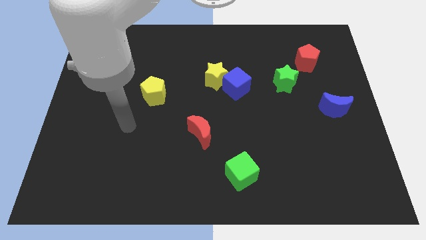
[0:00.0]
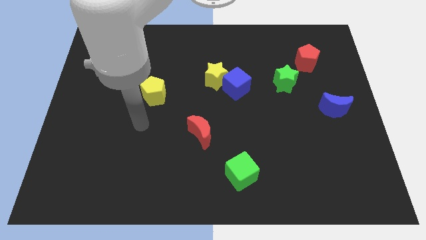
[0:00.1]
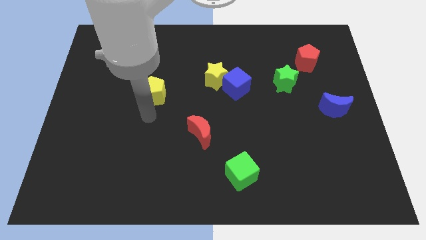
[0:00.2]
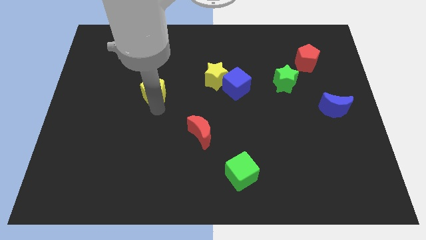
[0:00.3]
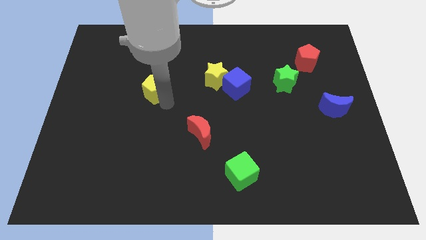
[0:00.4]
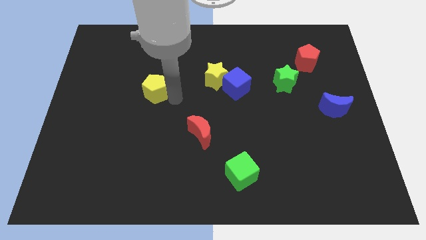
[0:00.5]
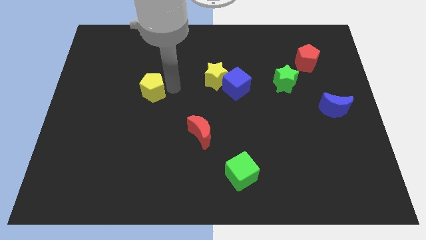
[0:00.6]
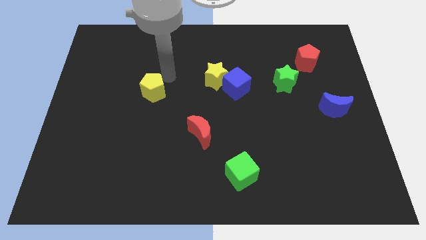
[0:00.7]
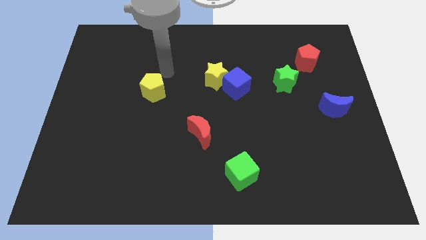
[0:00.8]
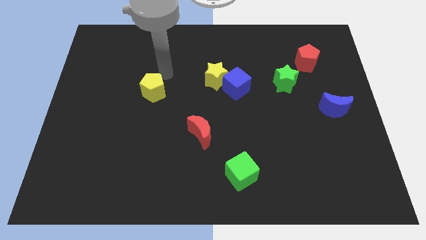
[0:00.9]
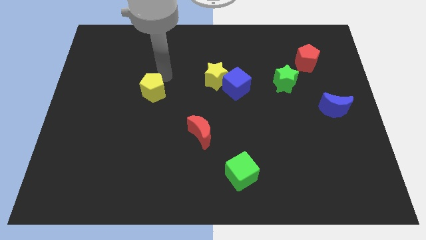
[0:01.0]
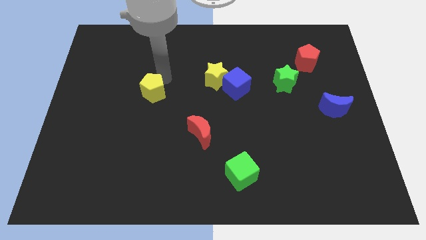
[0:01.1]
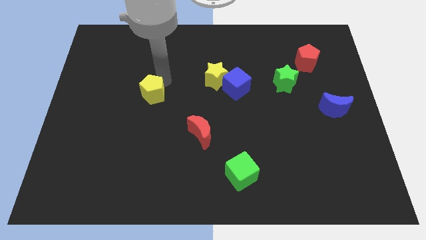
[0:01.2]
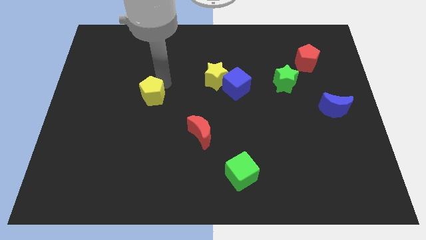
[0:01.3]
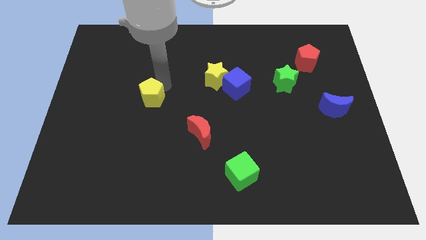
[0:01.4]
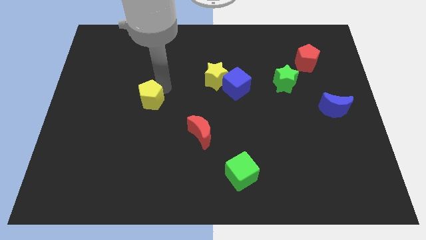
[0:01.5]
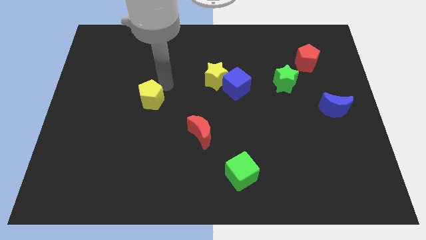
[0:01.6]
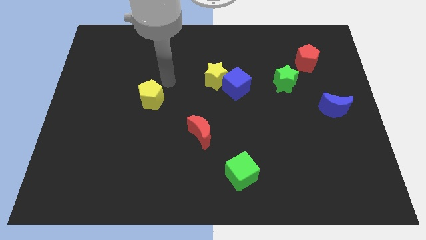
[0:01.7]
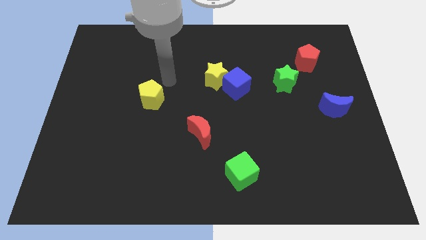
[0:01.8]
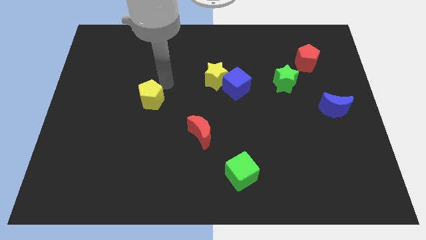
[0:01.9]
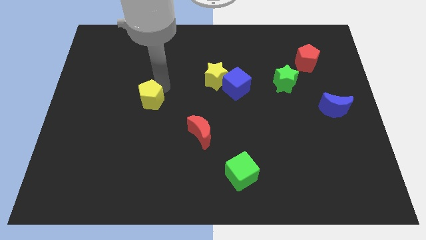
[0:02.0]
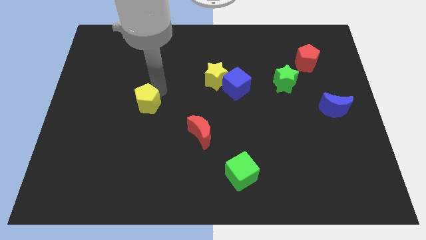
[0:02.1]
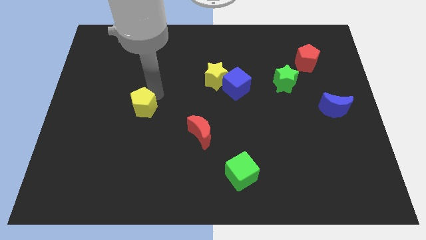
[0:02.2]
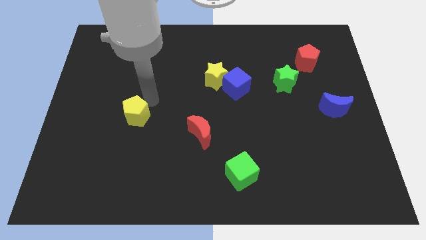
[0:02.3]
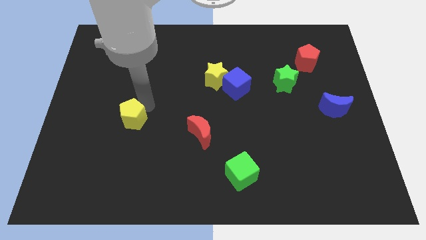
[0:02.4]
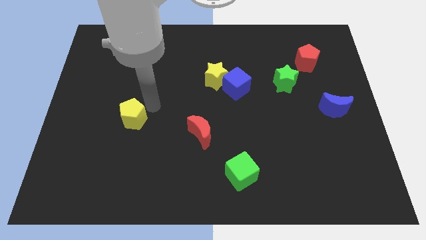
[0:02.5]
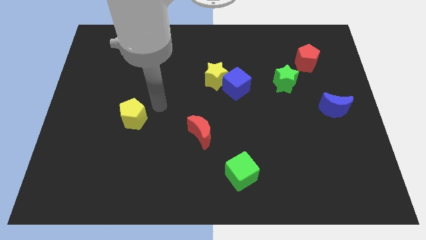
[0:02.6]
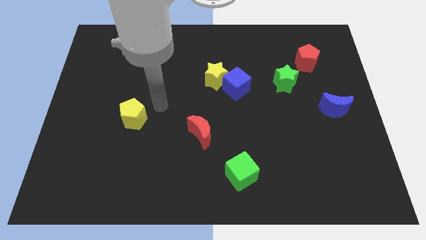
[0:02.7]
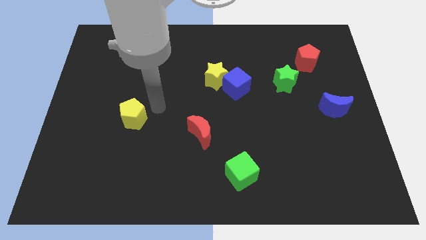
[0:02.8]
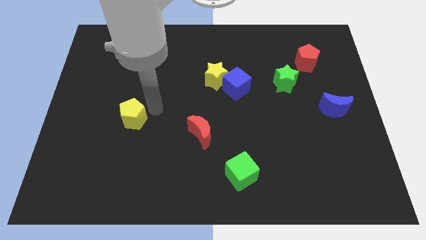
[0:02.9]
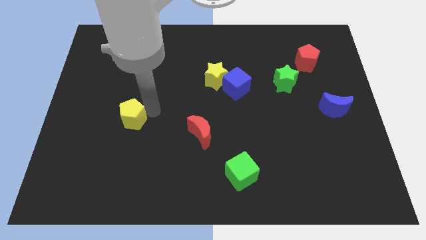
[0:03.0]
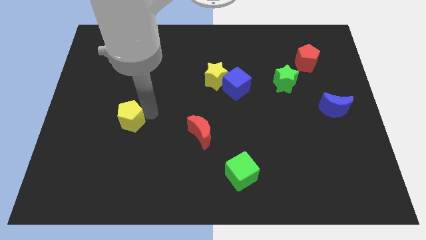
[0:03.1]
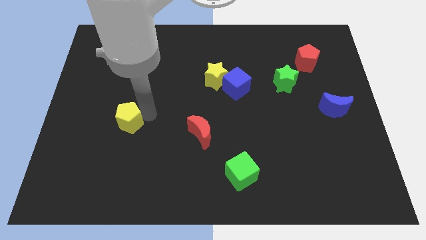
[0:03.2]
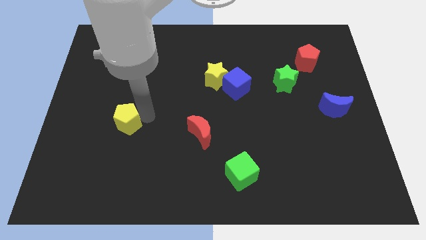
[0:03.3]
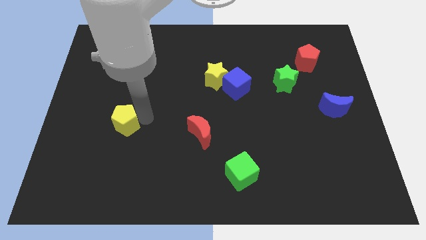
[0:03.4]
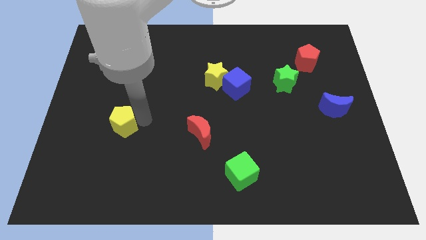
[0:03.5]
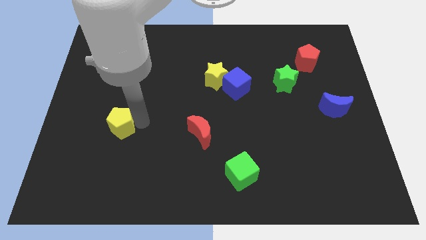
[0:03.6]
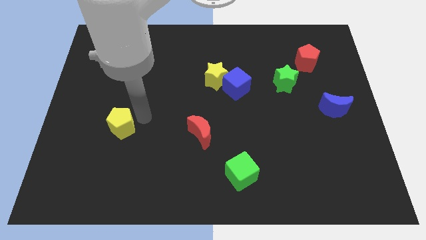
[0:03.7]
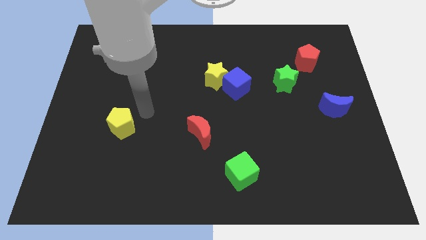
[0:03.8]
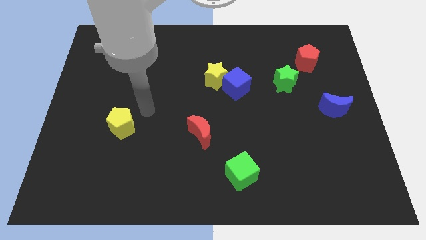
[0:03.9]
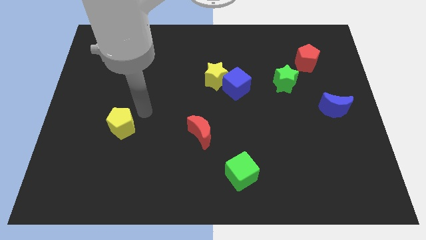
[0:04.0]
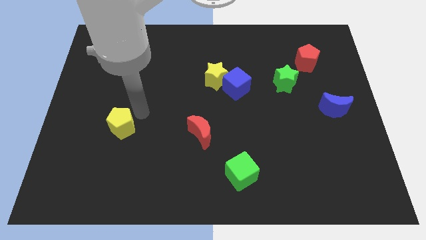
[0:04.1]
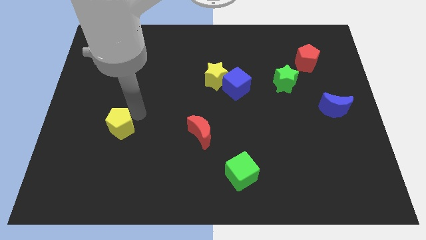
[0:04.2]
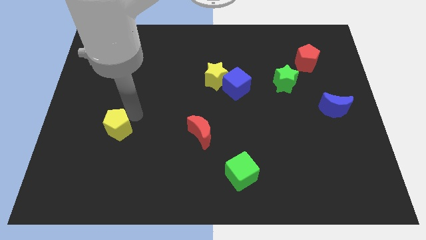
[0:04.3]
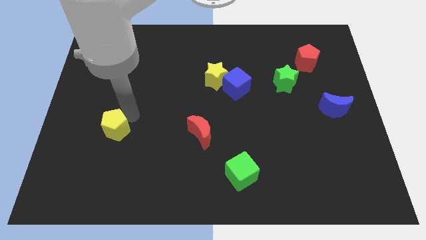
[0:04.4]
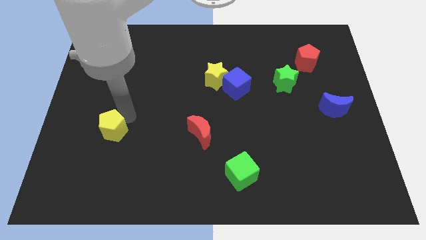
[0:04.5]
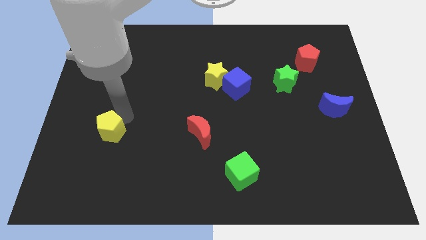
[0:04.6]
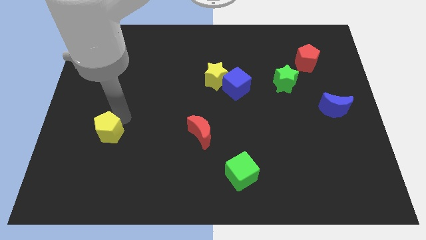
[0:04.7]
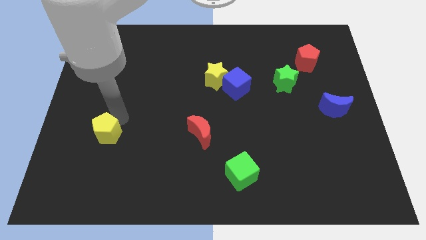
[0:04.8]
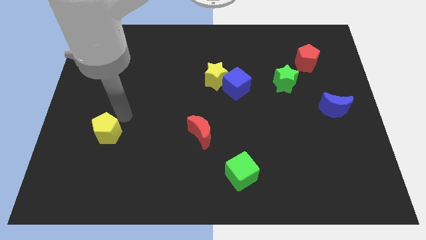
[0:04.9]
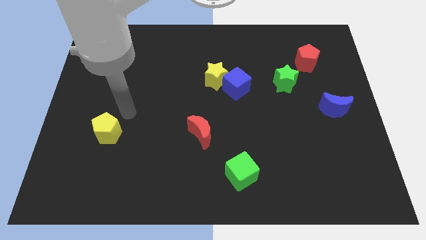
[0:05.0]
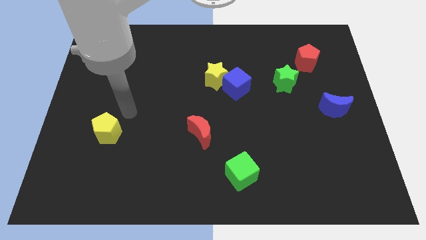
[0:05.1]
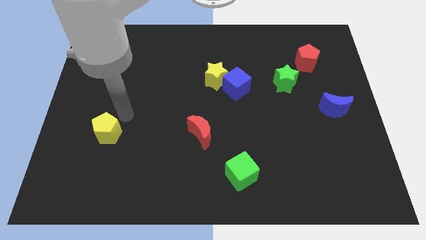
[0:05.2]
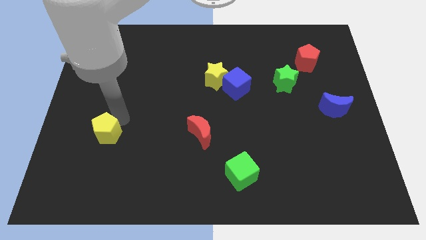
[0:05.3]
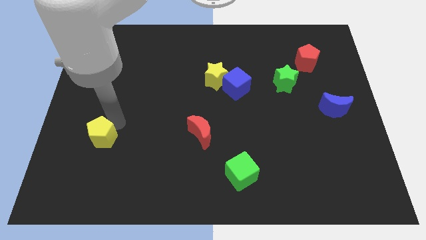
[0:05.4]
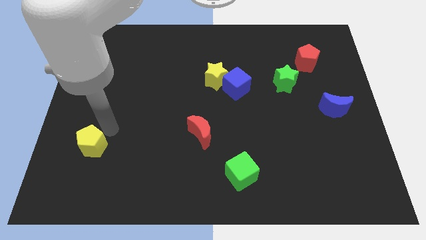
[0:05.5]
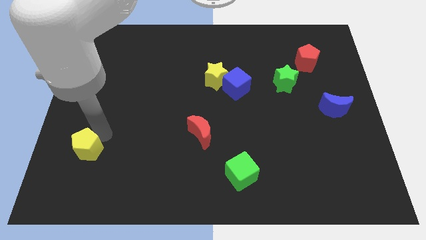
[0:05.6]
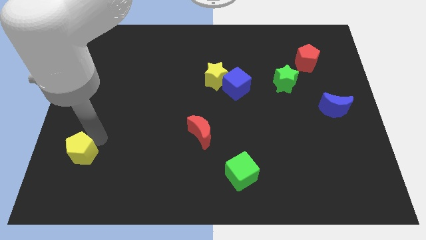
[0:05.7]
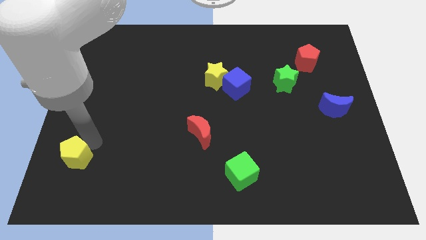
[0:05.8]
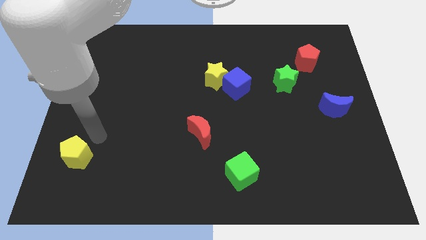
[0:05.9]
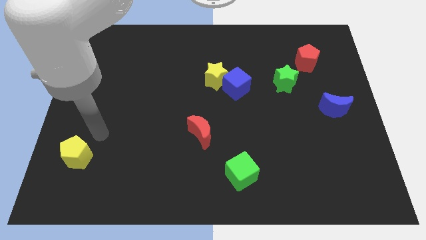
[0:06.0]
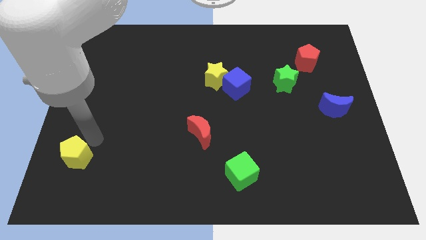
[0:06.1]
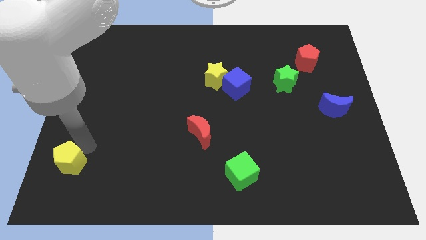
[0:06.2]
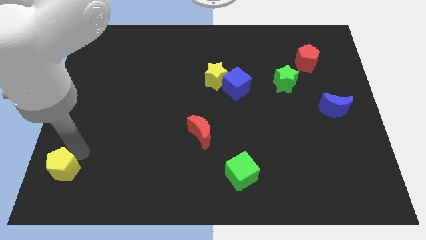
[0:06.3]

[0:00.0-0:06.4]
move the yellow pentagon to the bottom left

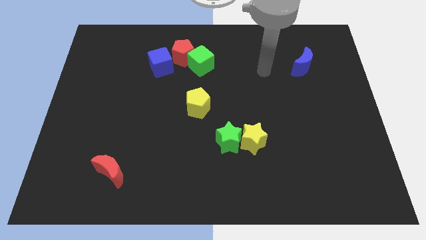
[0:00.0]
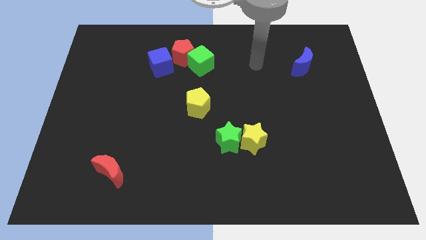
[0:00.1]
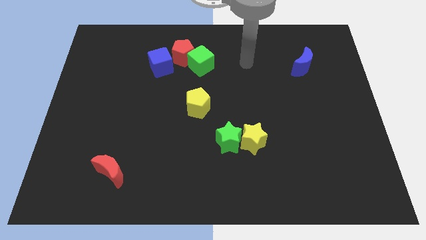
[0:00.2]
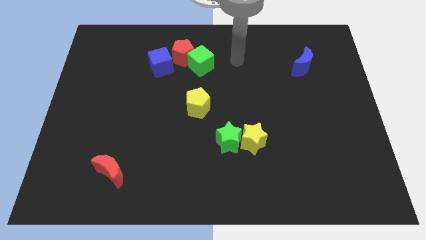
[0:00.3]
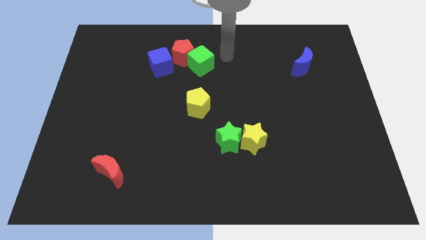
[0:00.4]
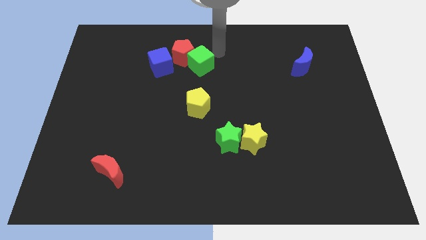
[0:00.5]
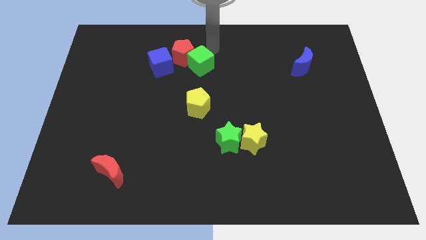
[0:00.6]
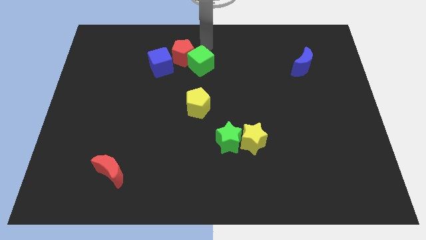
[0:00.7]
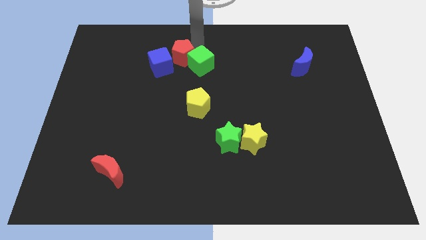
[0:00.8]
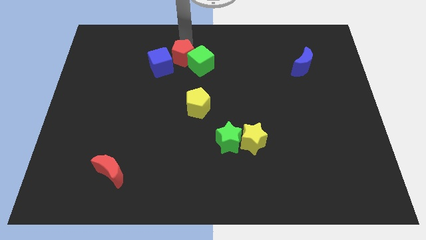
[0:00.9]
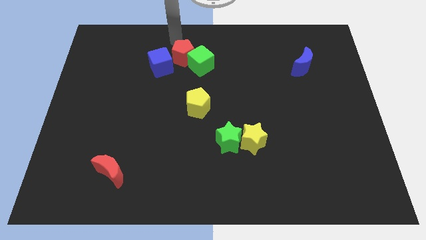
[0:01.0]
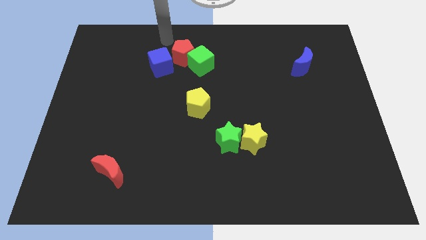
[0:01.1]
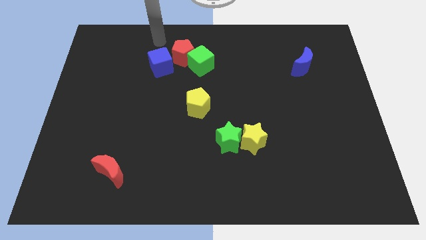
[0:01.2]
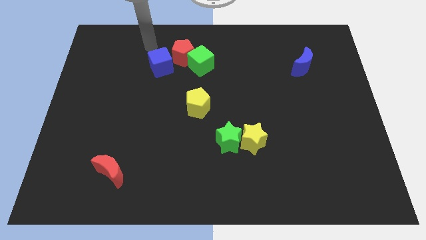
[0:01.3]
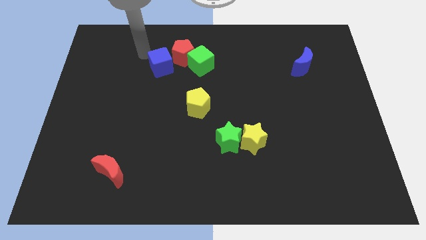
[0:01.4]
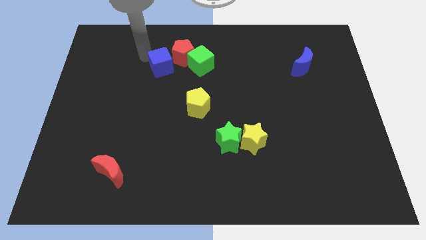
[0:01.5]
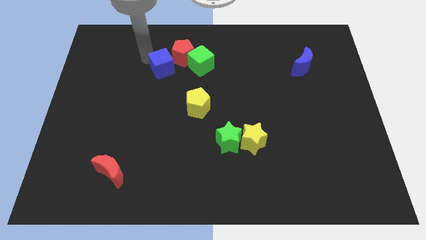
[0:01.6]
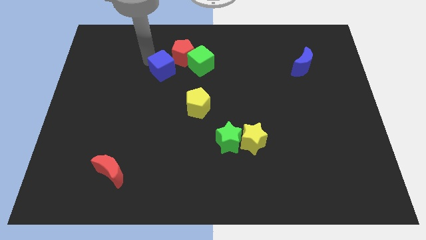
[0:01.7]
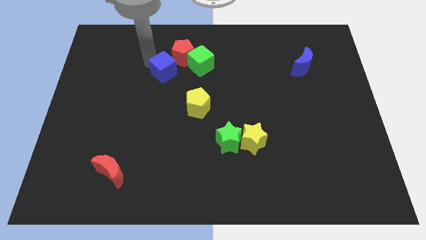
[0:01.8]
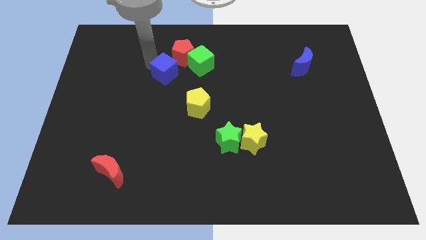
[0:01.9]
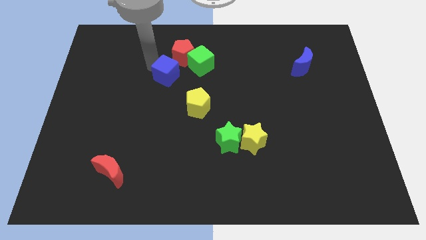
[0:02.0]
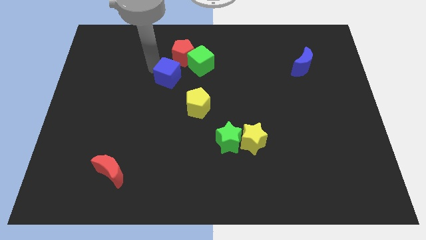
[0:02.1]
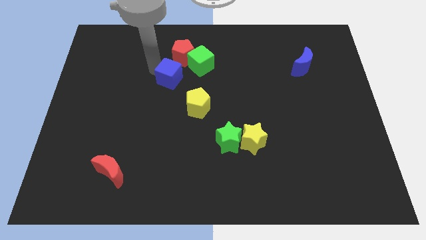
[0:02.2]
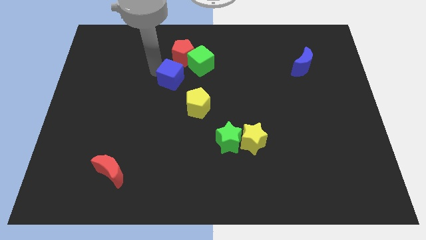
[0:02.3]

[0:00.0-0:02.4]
put the blue cube to the middle of the board
